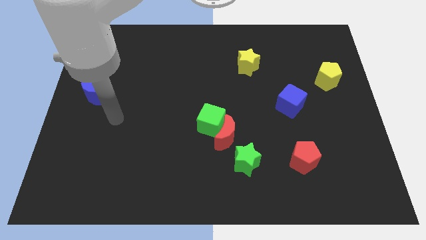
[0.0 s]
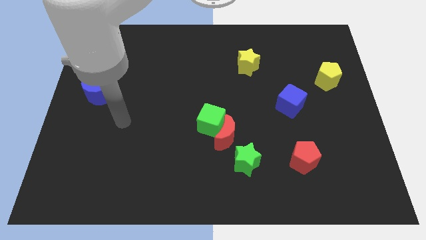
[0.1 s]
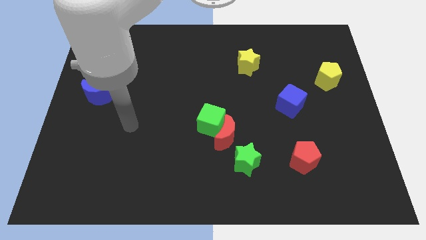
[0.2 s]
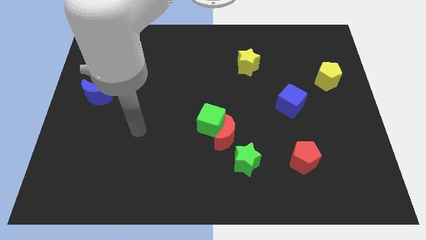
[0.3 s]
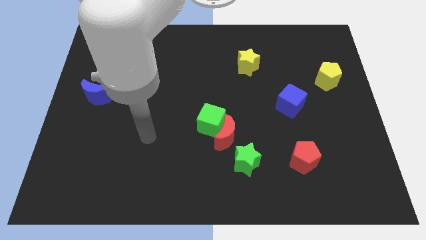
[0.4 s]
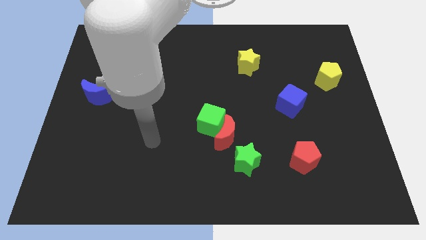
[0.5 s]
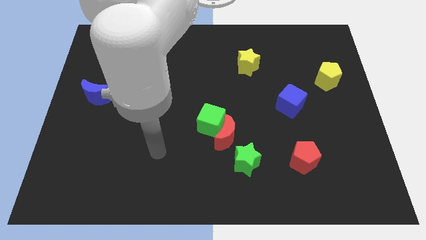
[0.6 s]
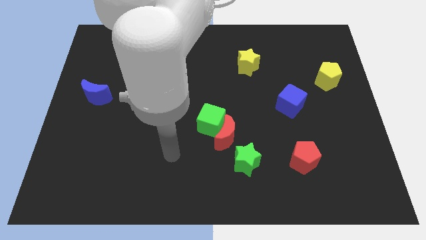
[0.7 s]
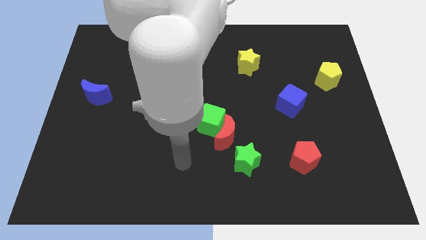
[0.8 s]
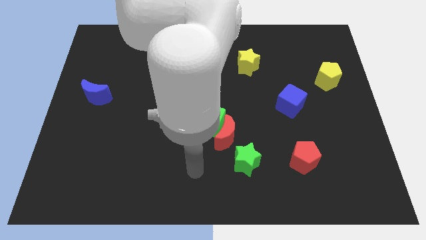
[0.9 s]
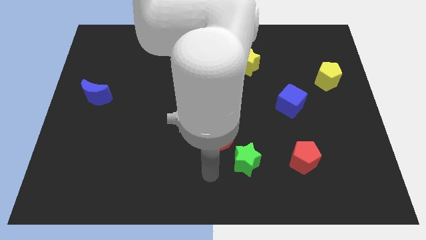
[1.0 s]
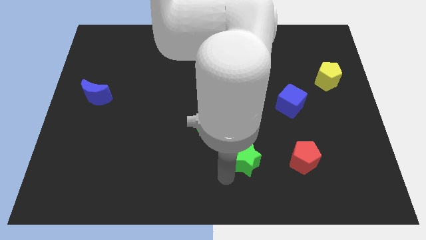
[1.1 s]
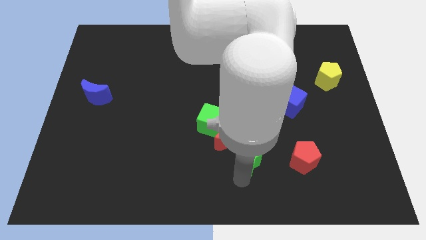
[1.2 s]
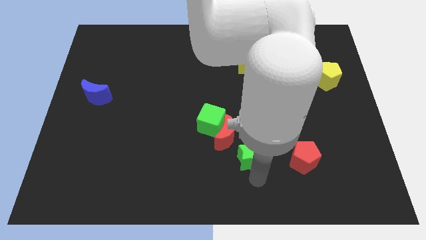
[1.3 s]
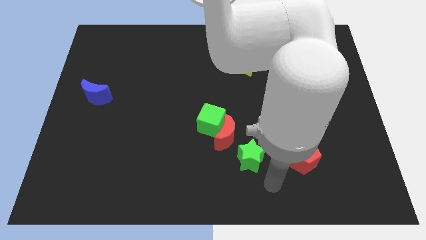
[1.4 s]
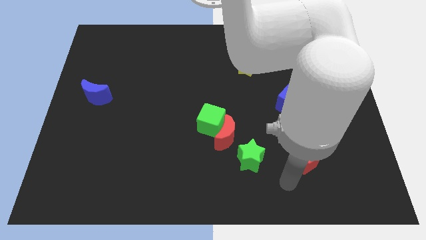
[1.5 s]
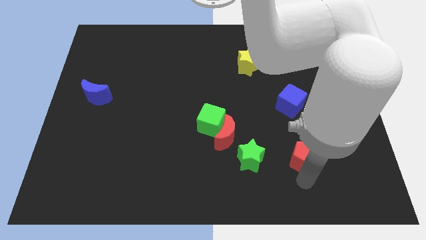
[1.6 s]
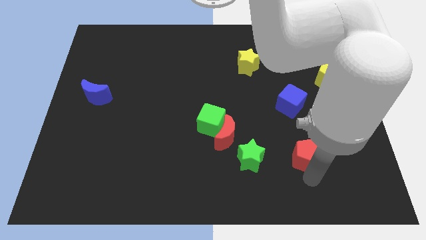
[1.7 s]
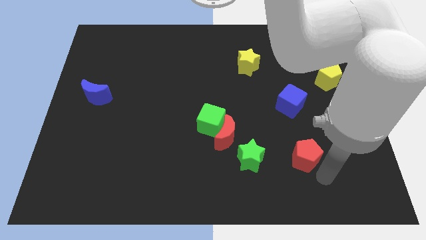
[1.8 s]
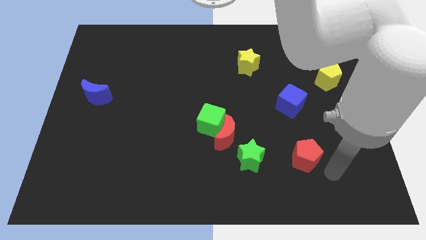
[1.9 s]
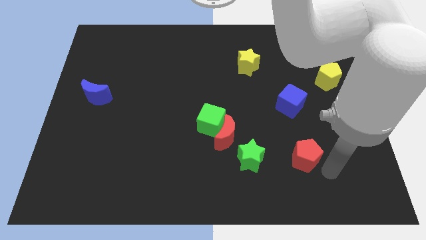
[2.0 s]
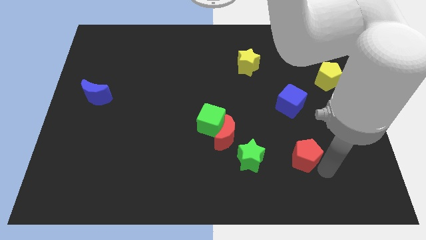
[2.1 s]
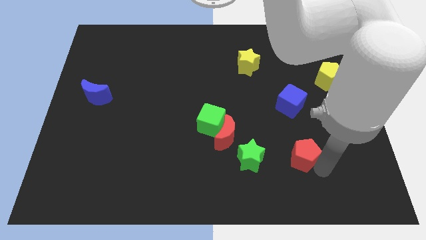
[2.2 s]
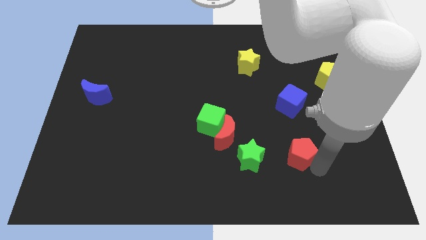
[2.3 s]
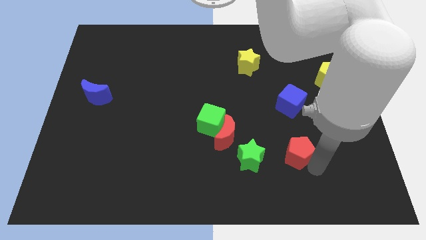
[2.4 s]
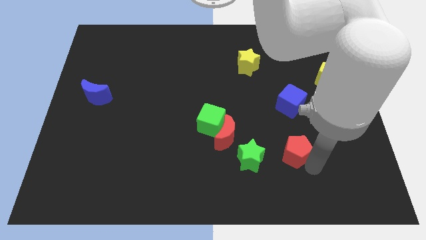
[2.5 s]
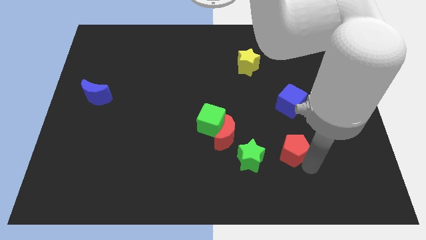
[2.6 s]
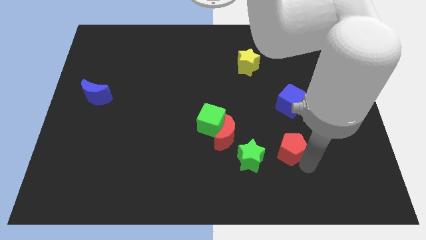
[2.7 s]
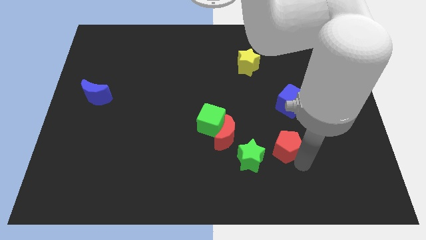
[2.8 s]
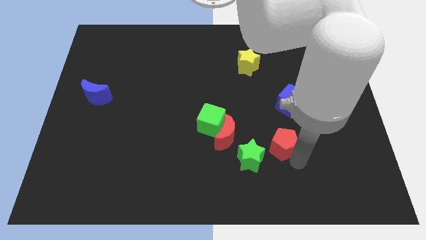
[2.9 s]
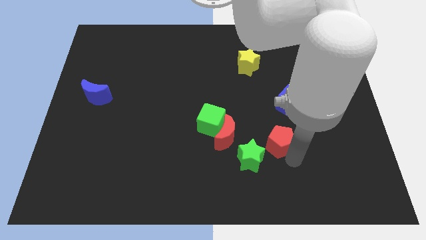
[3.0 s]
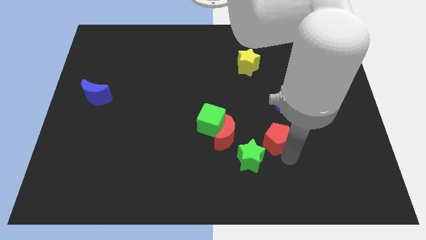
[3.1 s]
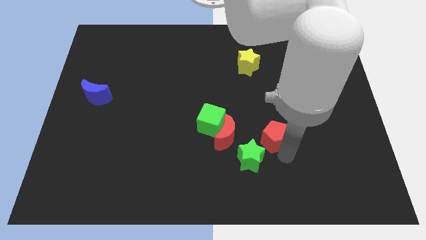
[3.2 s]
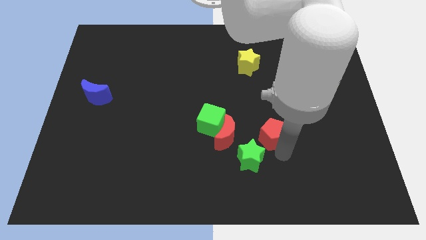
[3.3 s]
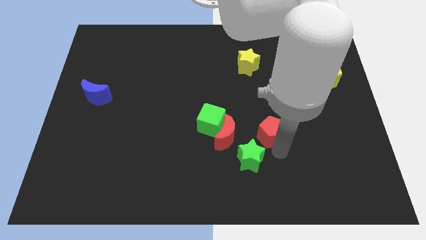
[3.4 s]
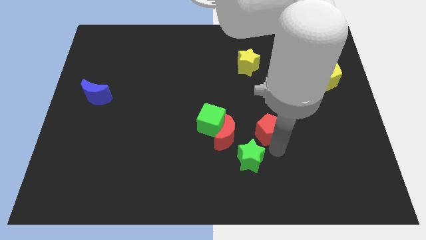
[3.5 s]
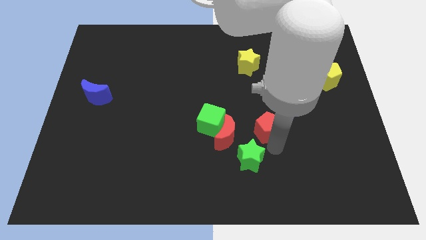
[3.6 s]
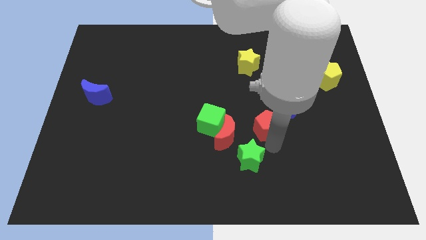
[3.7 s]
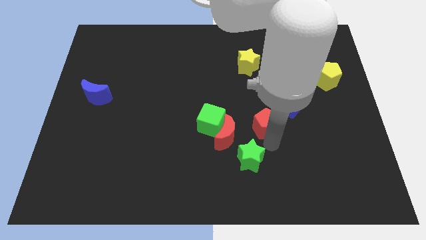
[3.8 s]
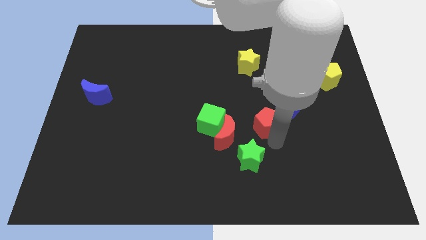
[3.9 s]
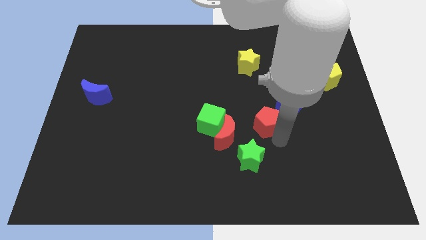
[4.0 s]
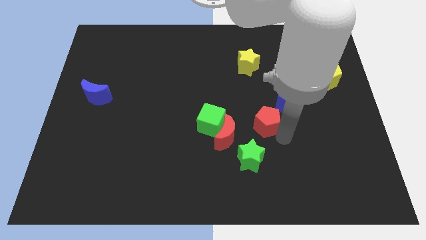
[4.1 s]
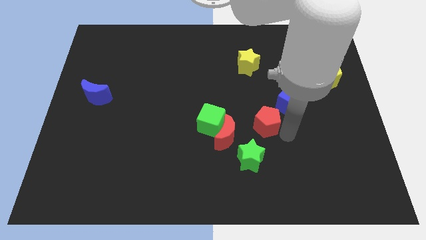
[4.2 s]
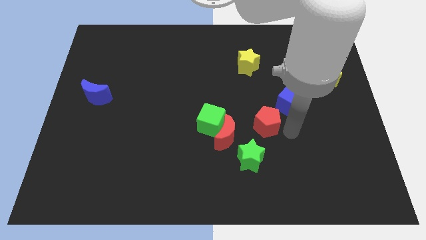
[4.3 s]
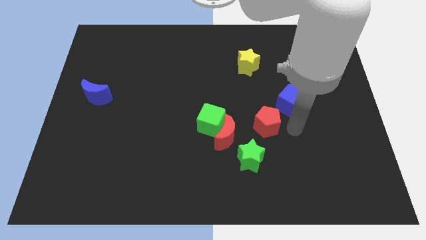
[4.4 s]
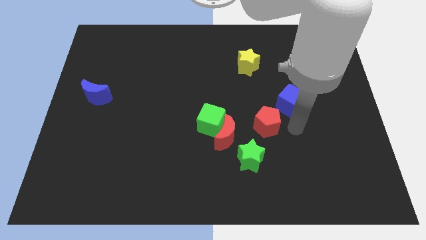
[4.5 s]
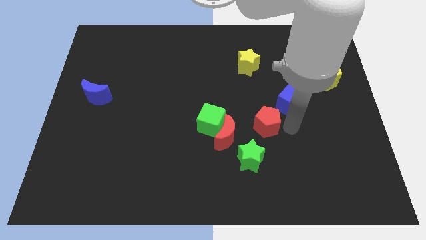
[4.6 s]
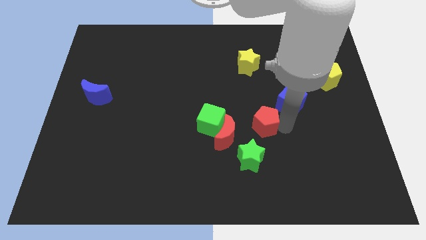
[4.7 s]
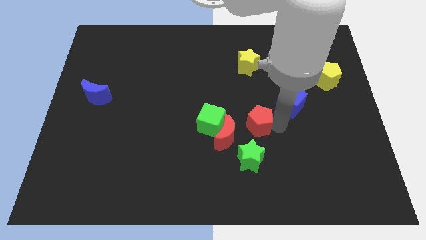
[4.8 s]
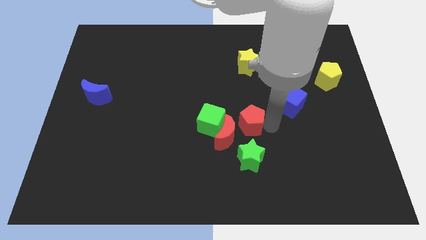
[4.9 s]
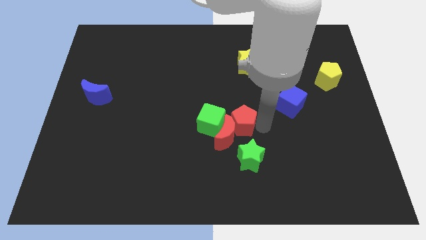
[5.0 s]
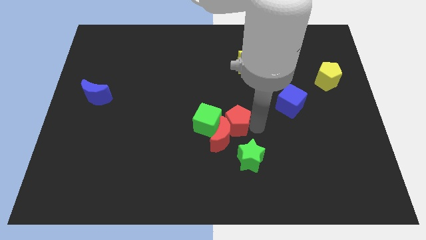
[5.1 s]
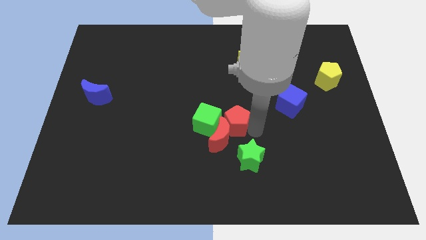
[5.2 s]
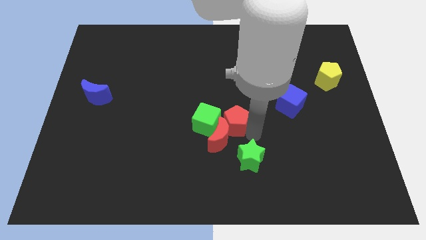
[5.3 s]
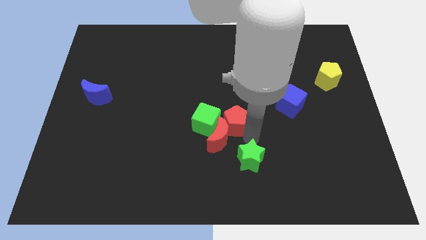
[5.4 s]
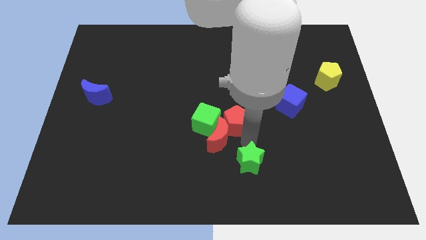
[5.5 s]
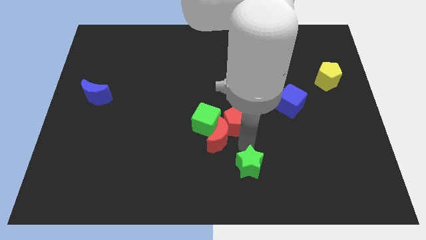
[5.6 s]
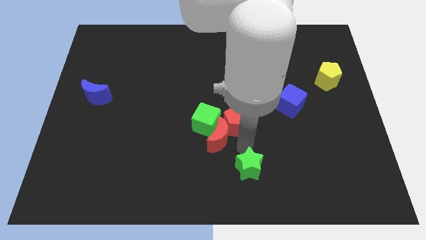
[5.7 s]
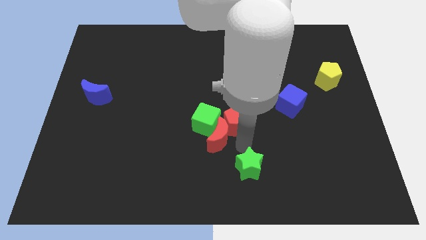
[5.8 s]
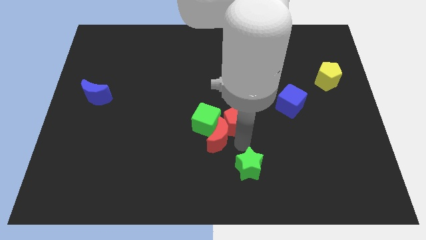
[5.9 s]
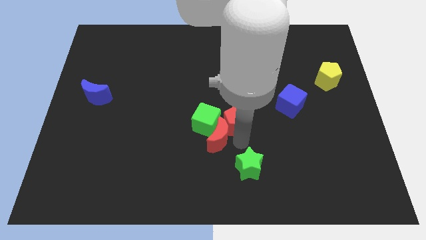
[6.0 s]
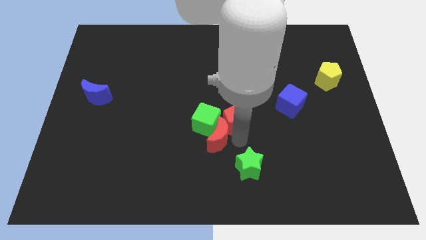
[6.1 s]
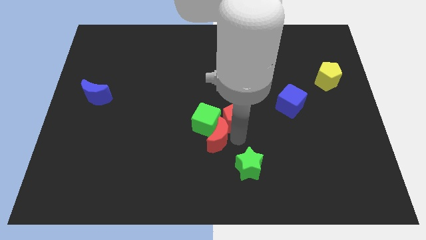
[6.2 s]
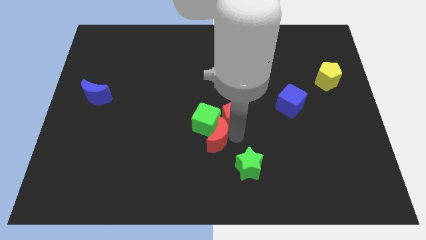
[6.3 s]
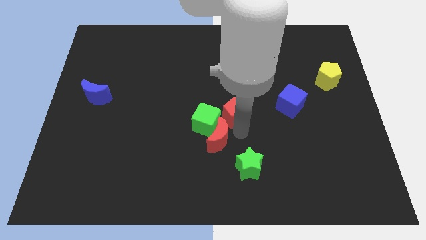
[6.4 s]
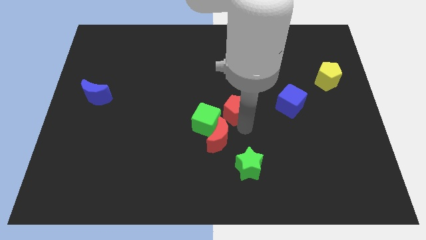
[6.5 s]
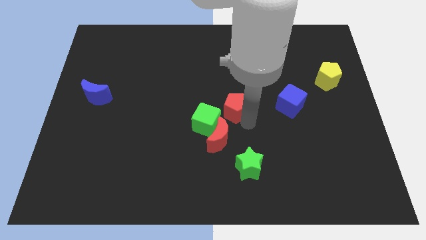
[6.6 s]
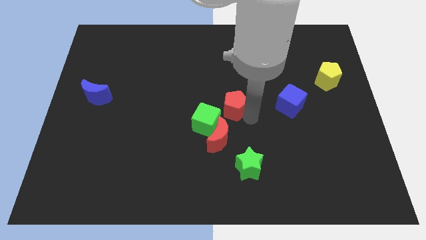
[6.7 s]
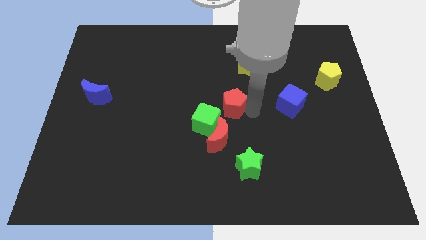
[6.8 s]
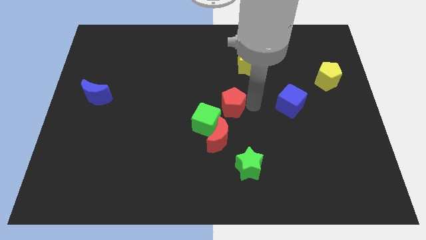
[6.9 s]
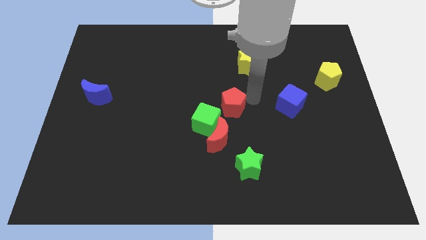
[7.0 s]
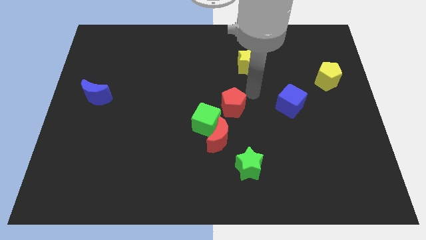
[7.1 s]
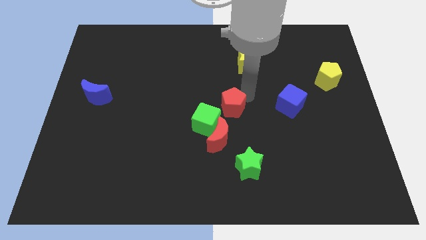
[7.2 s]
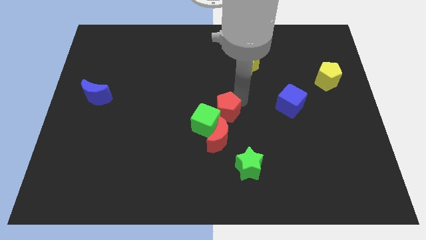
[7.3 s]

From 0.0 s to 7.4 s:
put the red pentagon close to the green cube

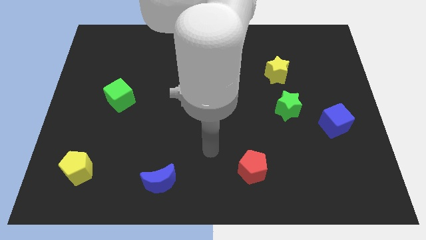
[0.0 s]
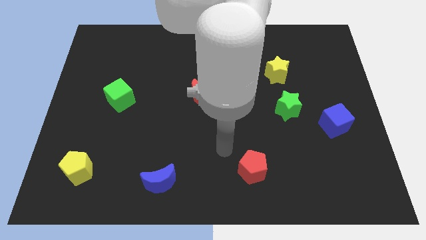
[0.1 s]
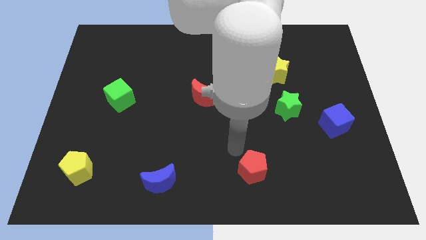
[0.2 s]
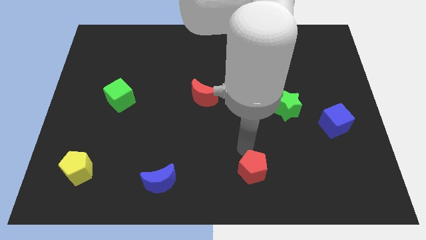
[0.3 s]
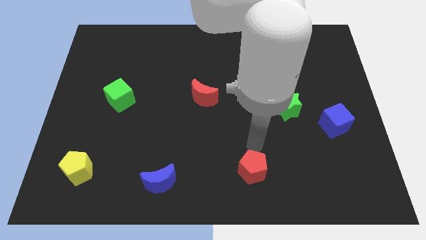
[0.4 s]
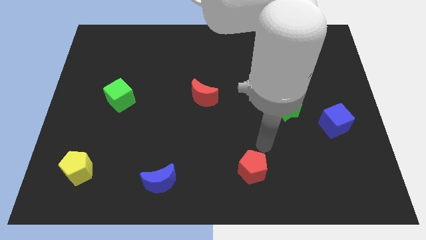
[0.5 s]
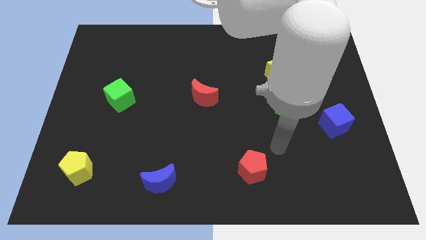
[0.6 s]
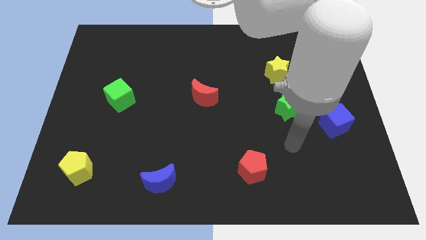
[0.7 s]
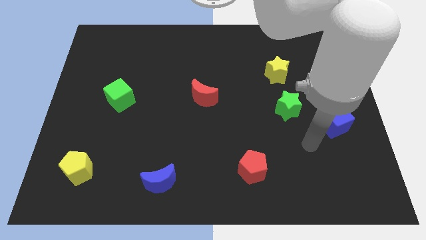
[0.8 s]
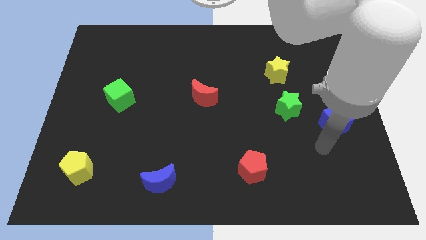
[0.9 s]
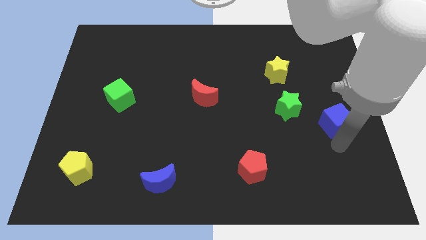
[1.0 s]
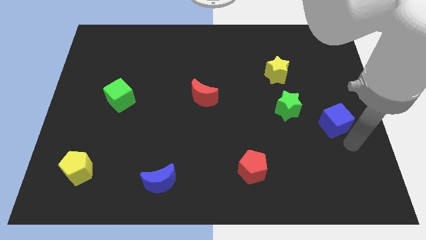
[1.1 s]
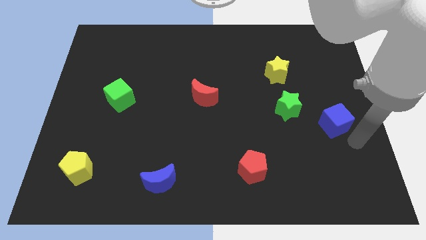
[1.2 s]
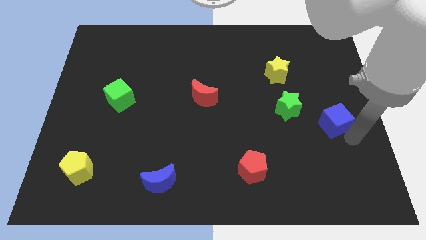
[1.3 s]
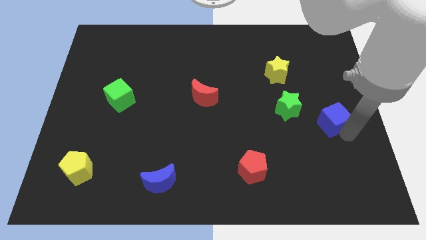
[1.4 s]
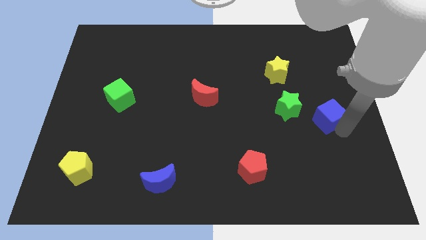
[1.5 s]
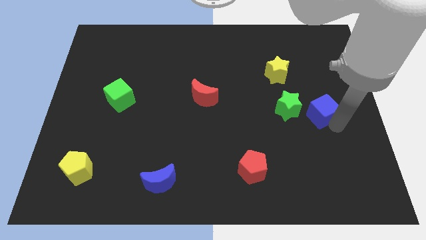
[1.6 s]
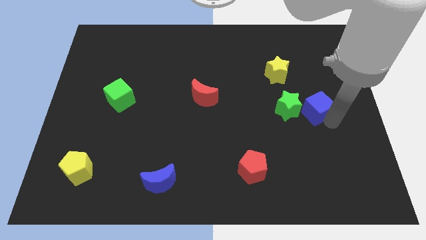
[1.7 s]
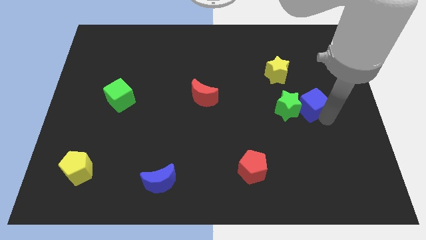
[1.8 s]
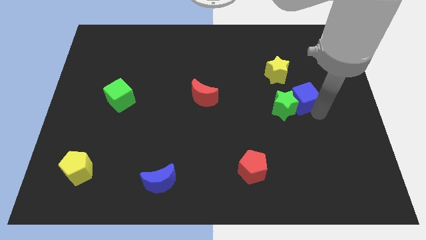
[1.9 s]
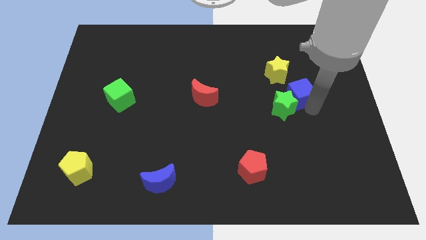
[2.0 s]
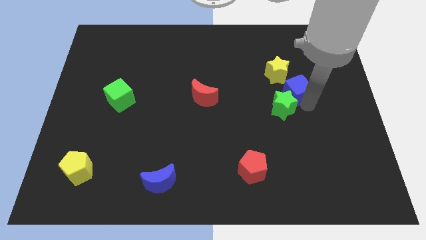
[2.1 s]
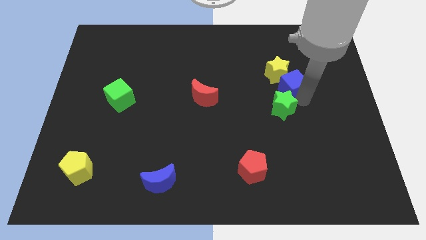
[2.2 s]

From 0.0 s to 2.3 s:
put the blue cube towards the yellow star
